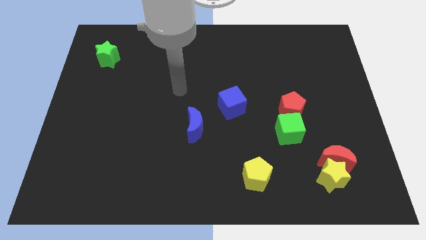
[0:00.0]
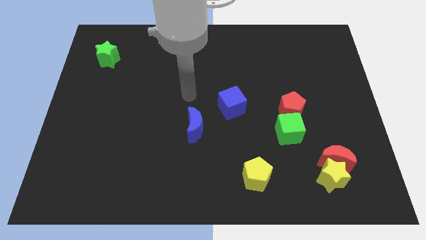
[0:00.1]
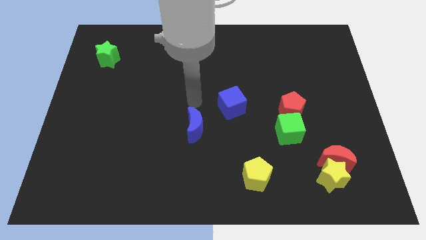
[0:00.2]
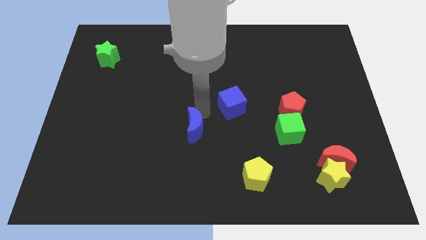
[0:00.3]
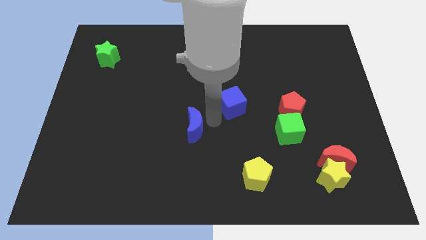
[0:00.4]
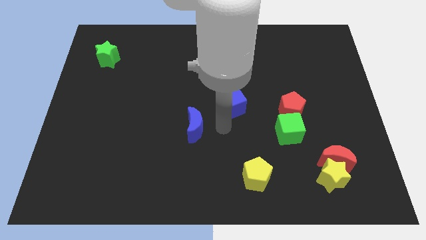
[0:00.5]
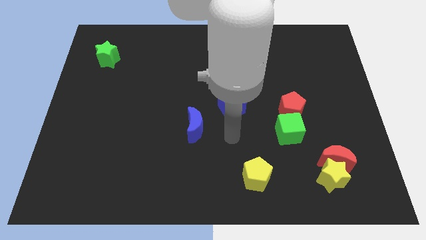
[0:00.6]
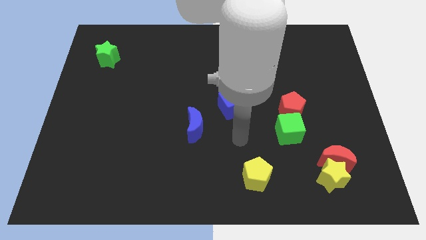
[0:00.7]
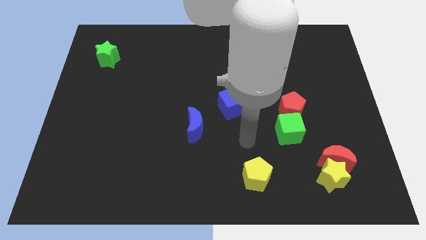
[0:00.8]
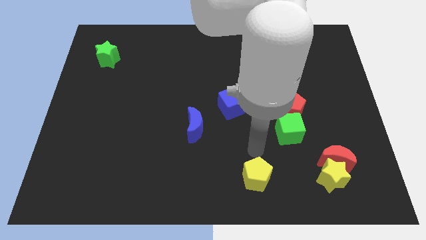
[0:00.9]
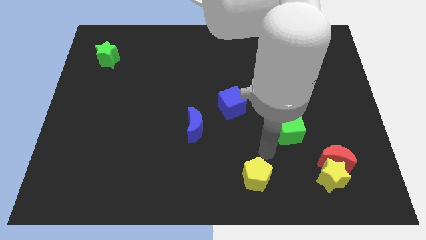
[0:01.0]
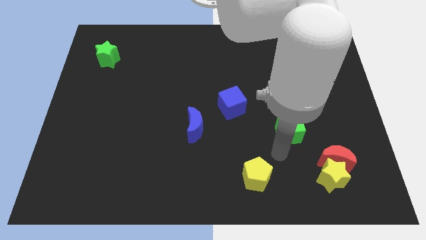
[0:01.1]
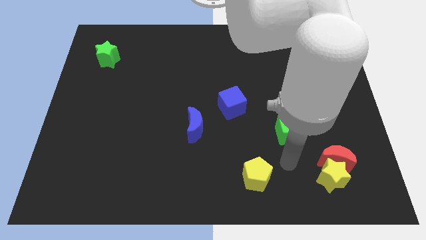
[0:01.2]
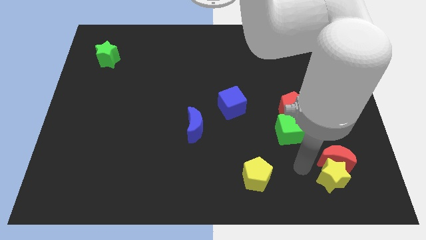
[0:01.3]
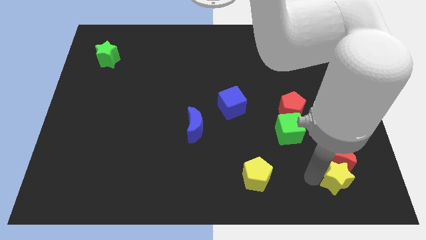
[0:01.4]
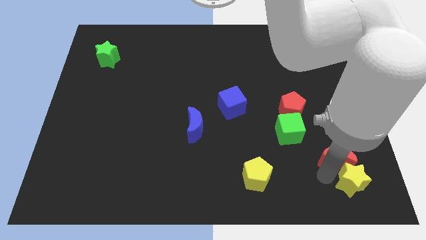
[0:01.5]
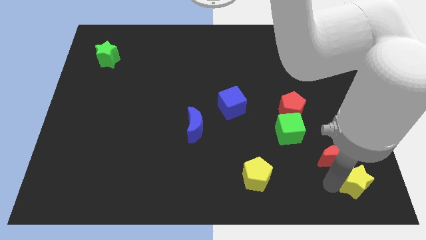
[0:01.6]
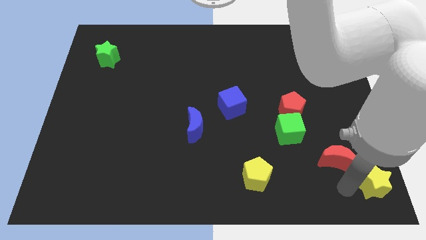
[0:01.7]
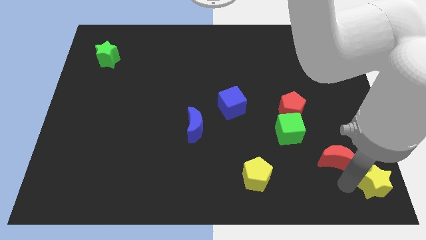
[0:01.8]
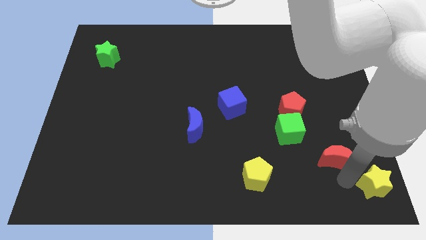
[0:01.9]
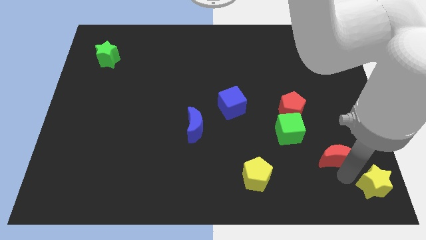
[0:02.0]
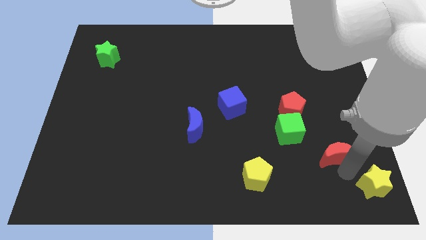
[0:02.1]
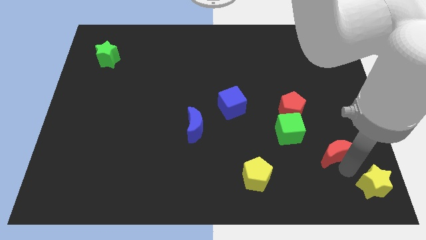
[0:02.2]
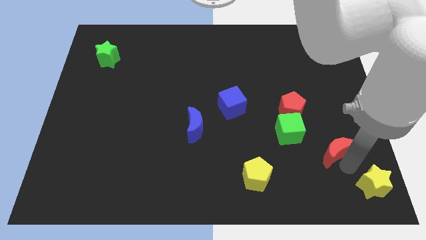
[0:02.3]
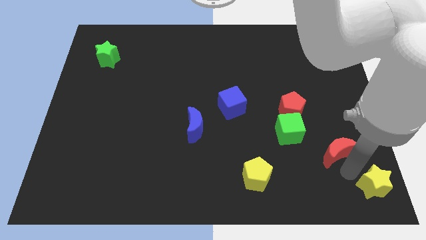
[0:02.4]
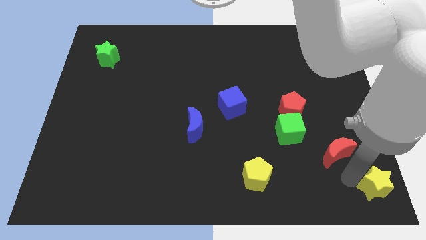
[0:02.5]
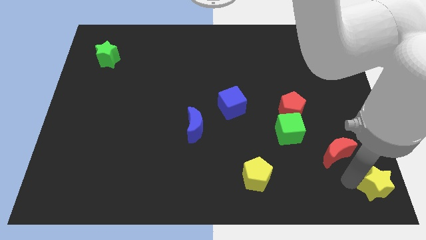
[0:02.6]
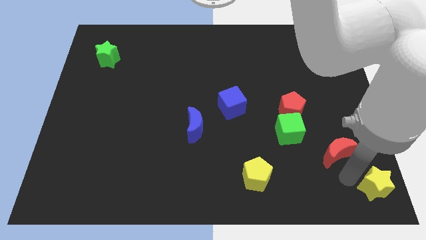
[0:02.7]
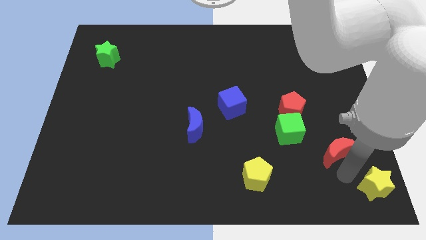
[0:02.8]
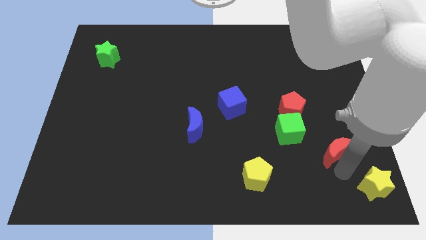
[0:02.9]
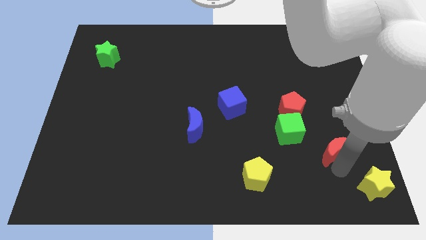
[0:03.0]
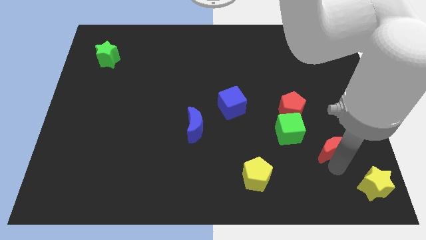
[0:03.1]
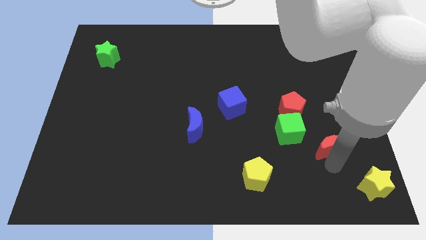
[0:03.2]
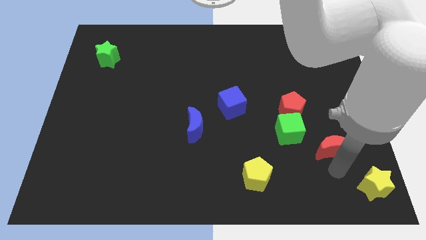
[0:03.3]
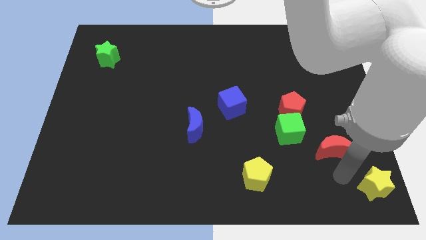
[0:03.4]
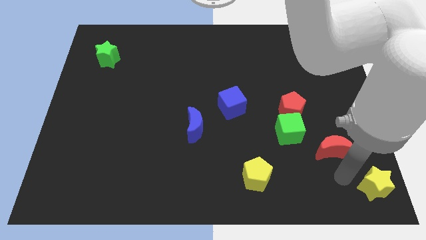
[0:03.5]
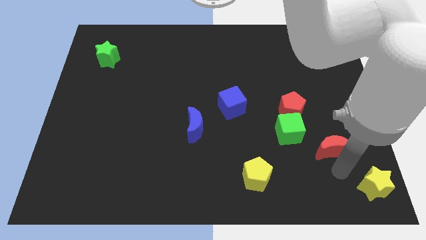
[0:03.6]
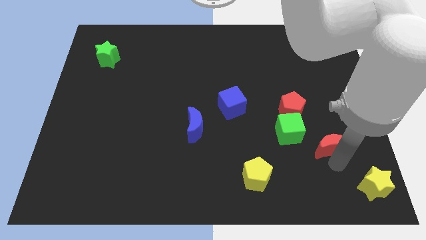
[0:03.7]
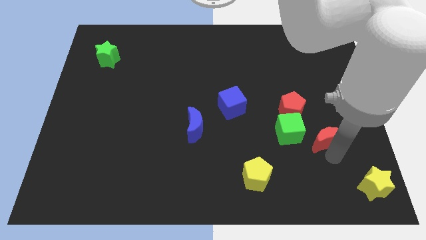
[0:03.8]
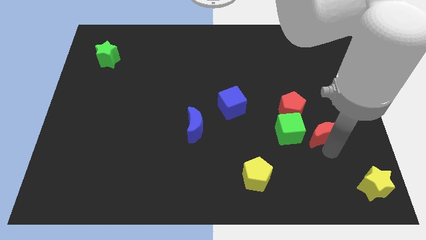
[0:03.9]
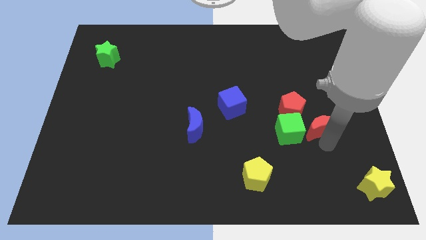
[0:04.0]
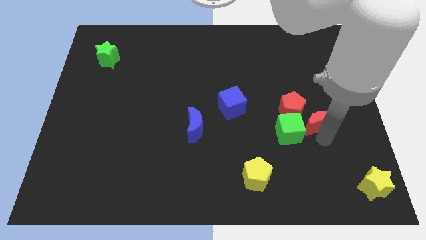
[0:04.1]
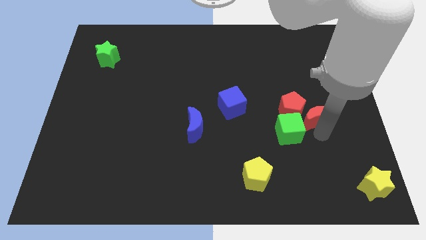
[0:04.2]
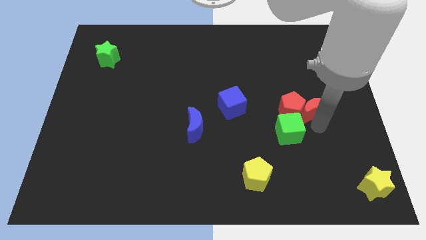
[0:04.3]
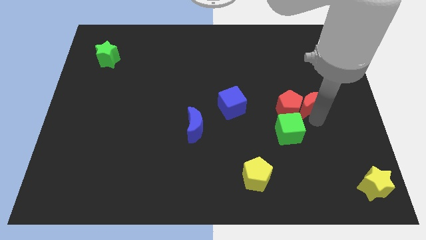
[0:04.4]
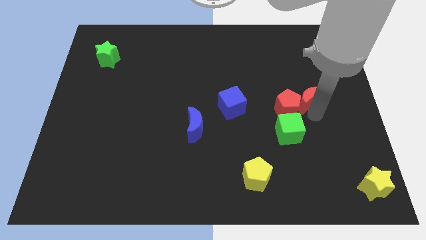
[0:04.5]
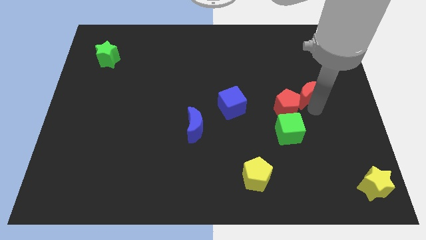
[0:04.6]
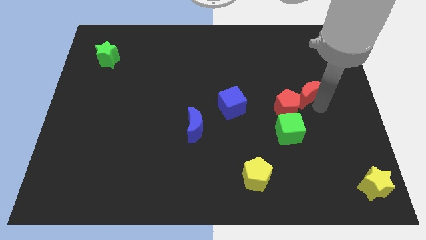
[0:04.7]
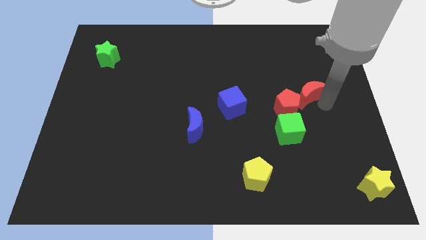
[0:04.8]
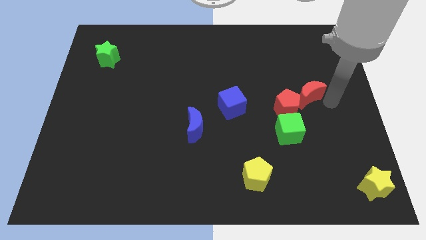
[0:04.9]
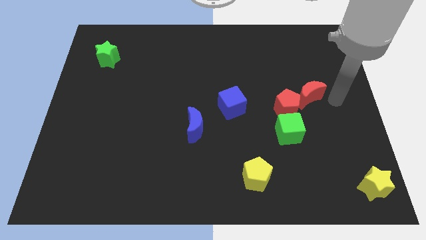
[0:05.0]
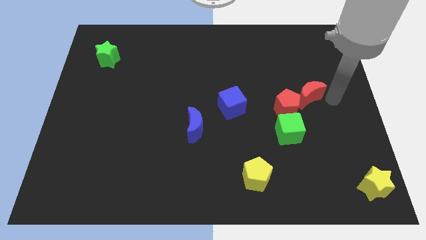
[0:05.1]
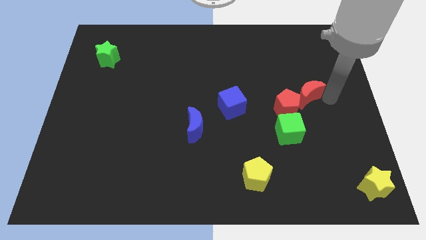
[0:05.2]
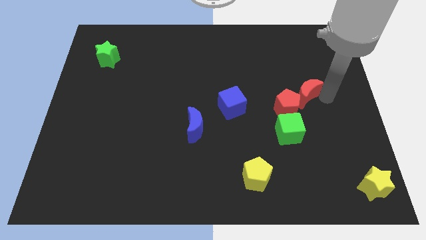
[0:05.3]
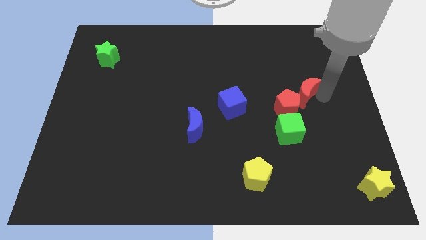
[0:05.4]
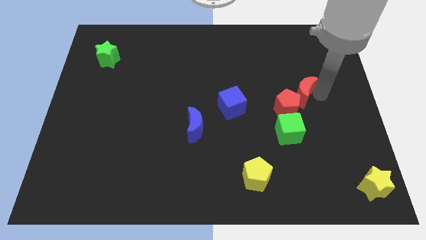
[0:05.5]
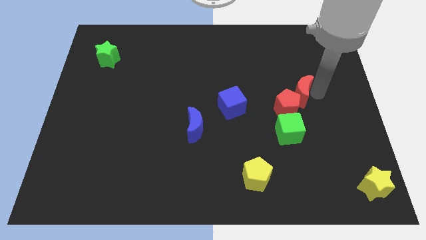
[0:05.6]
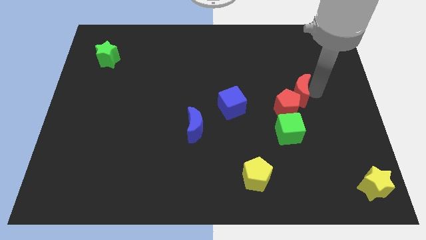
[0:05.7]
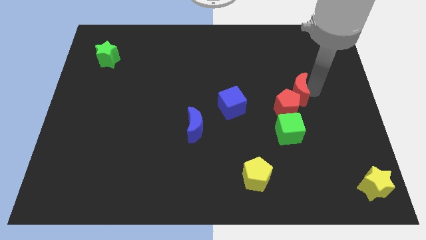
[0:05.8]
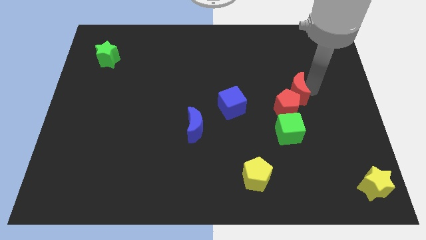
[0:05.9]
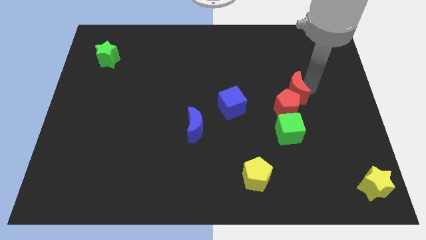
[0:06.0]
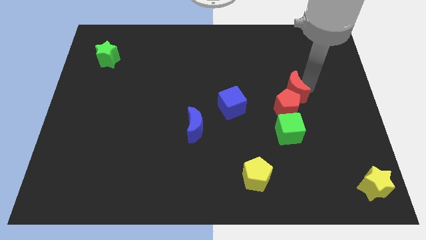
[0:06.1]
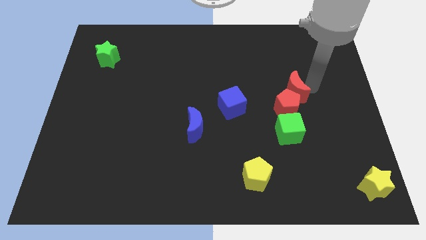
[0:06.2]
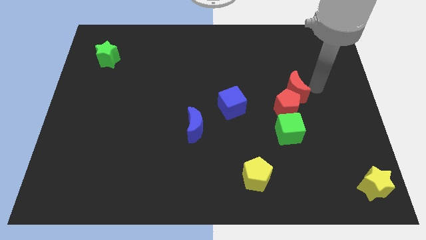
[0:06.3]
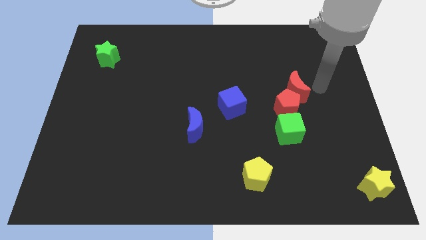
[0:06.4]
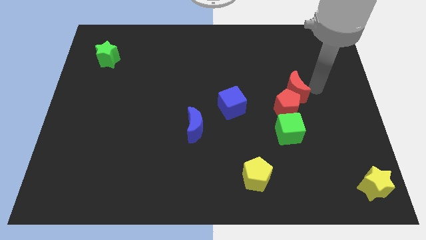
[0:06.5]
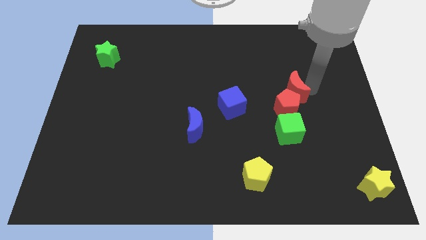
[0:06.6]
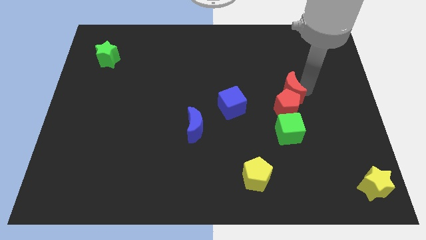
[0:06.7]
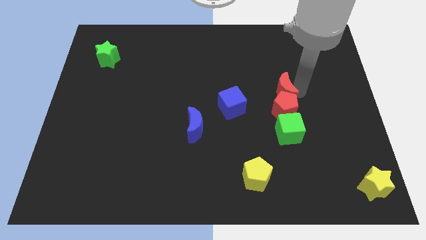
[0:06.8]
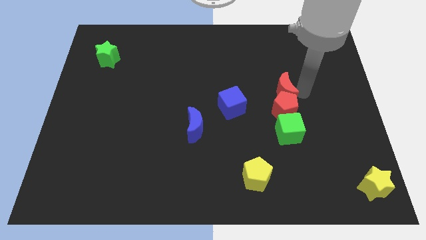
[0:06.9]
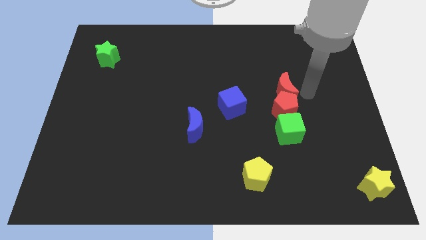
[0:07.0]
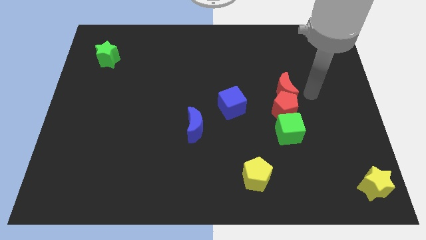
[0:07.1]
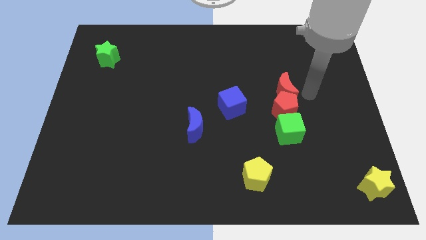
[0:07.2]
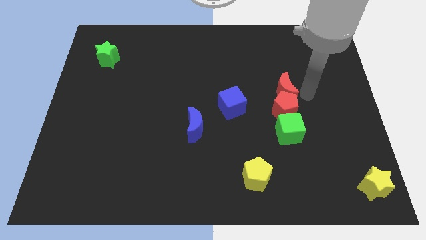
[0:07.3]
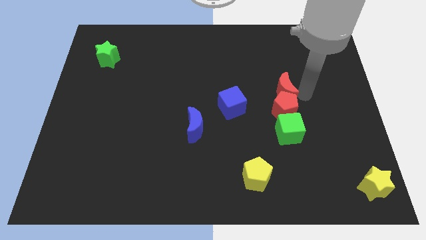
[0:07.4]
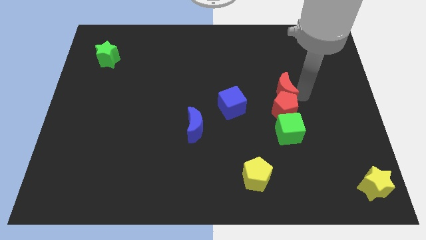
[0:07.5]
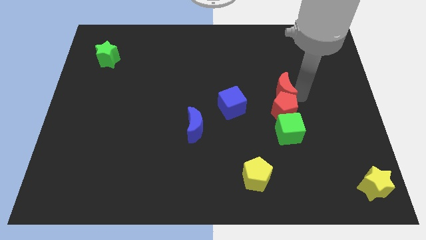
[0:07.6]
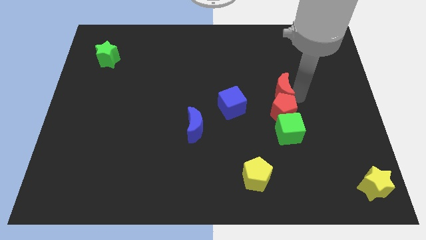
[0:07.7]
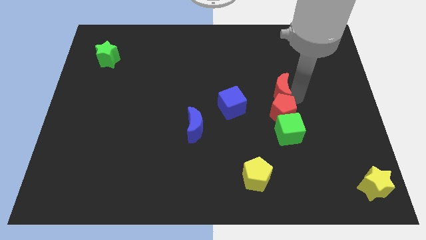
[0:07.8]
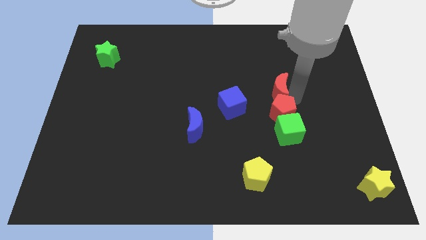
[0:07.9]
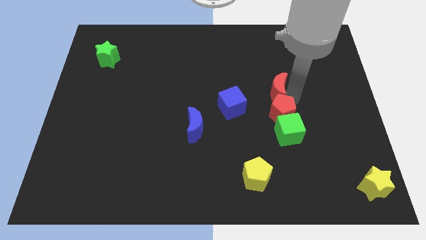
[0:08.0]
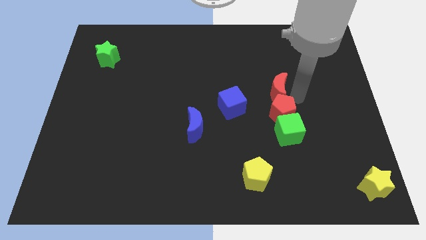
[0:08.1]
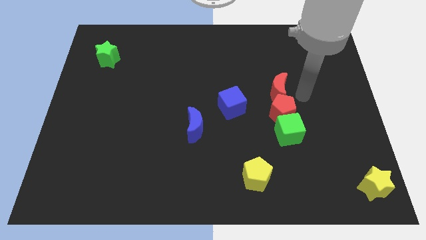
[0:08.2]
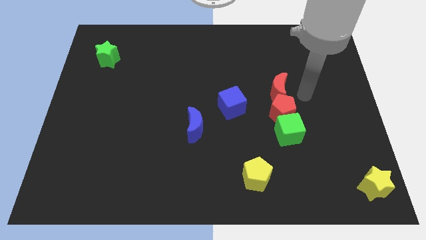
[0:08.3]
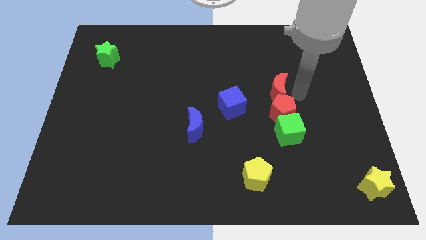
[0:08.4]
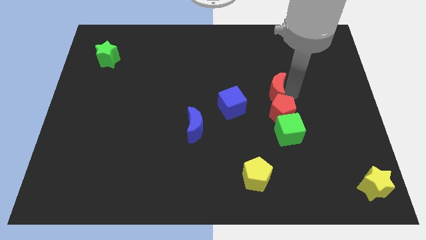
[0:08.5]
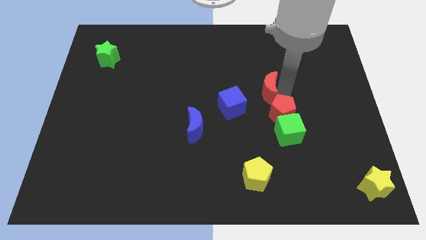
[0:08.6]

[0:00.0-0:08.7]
slide the red moon to the top right side of the blue cube
